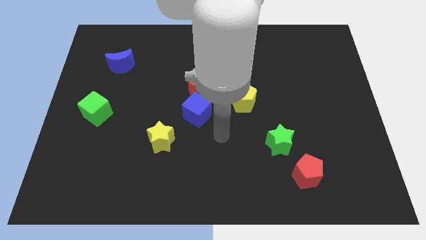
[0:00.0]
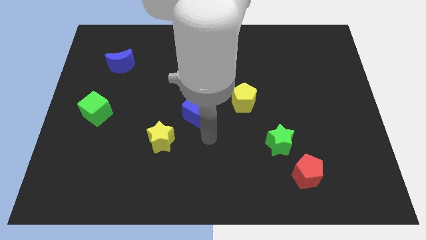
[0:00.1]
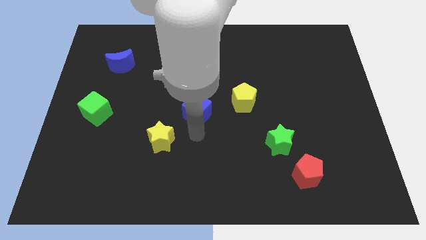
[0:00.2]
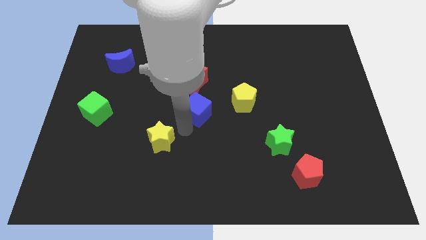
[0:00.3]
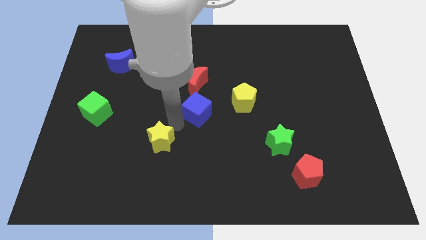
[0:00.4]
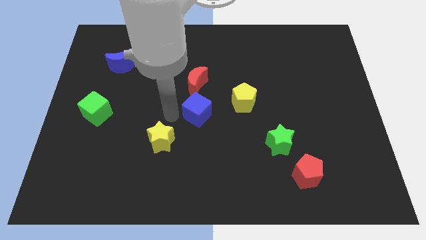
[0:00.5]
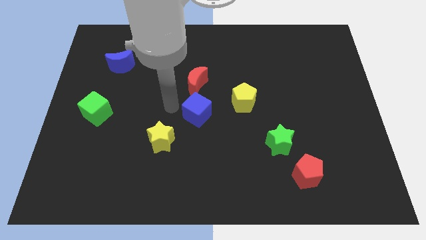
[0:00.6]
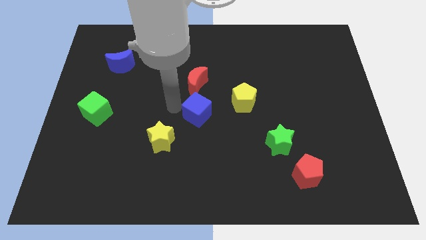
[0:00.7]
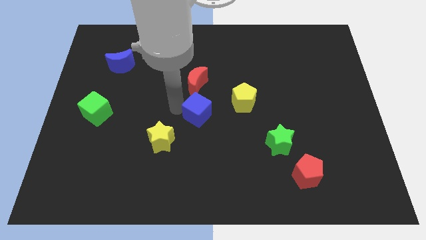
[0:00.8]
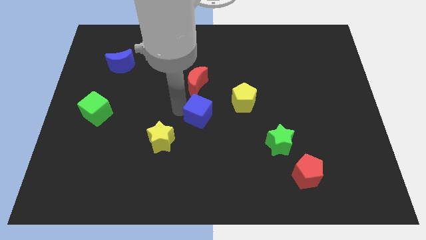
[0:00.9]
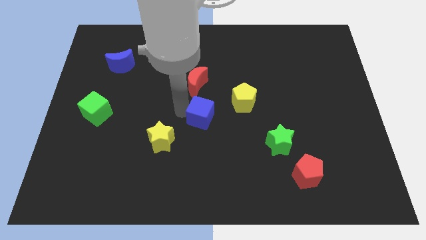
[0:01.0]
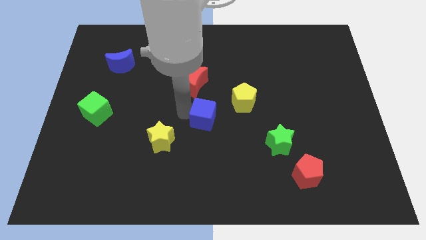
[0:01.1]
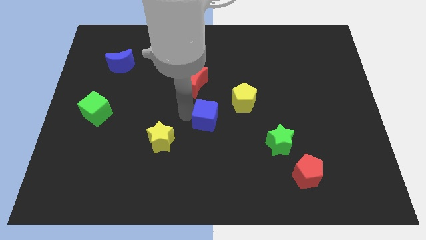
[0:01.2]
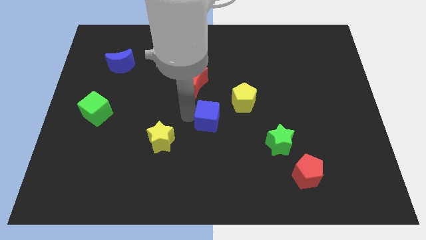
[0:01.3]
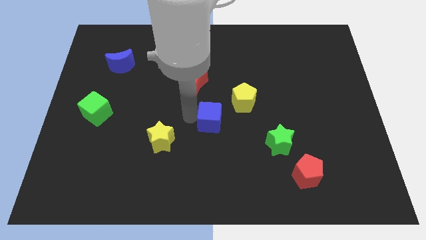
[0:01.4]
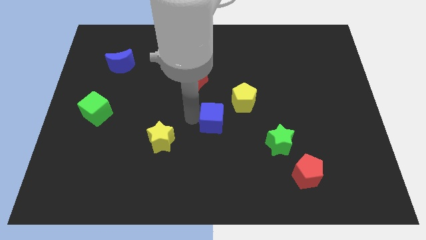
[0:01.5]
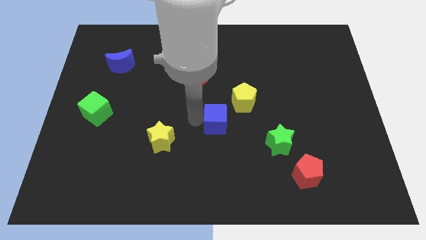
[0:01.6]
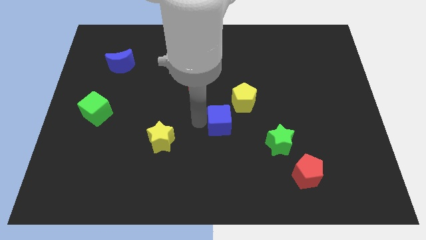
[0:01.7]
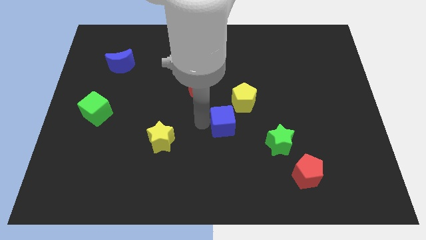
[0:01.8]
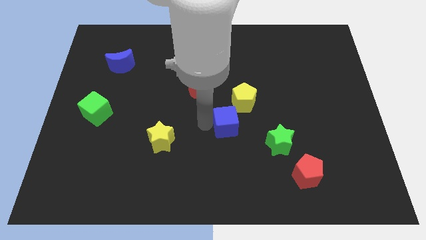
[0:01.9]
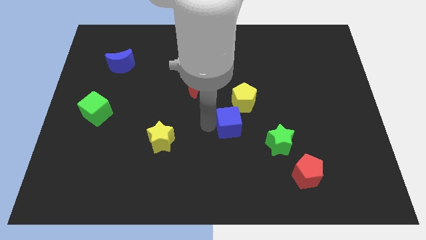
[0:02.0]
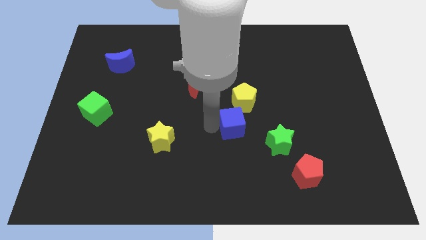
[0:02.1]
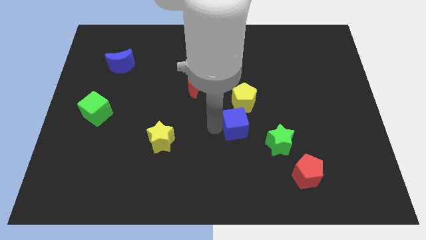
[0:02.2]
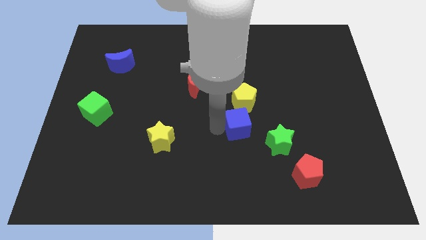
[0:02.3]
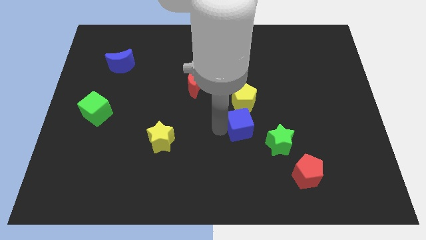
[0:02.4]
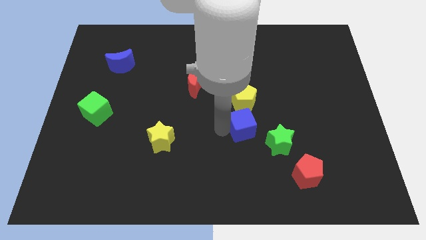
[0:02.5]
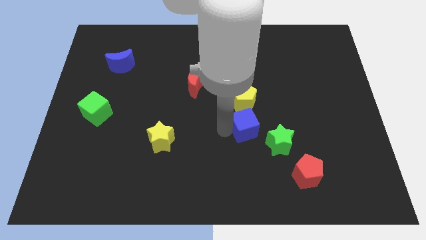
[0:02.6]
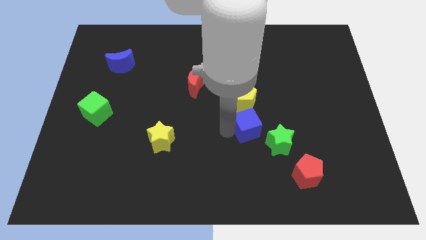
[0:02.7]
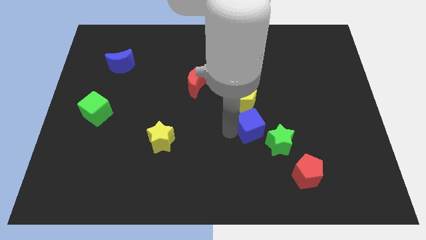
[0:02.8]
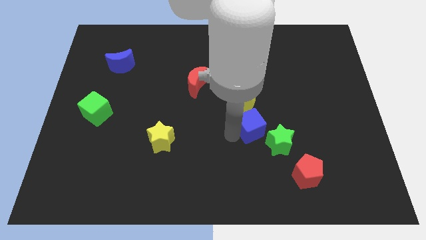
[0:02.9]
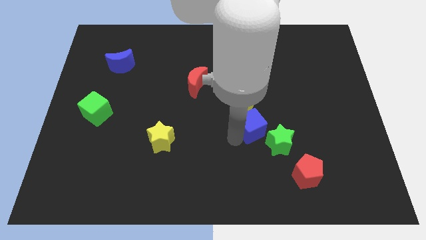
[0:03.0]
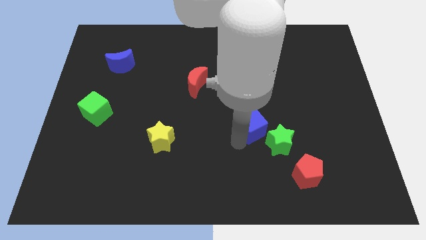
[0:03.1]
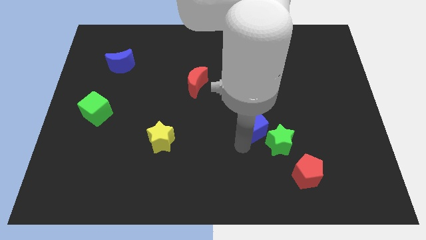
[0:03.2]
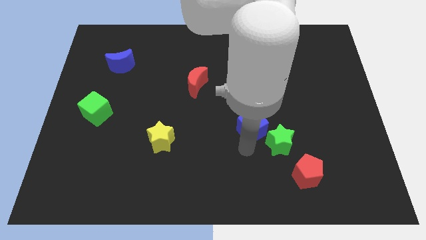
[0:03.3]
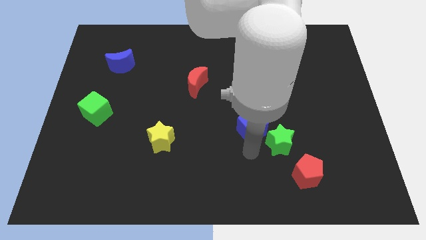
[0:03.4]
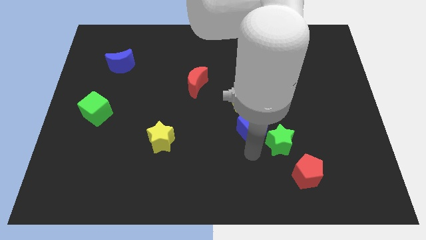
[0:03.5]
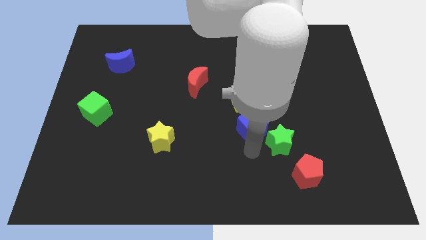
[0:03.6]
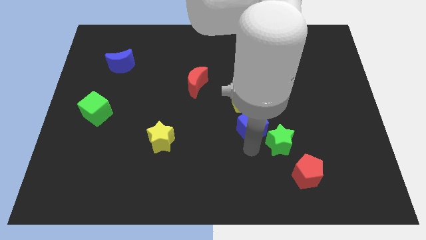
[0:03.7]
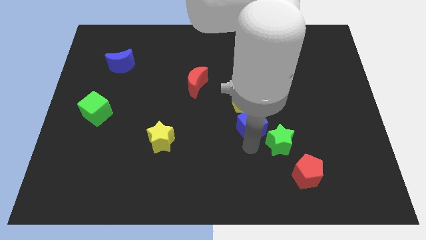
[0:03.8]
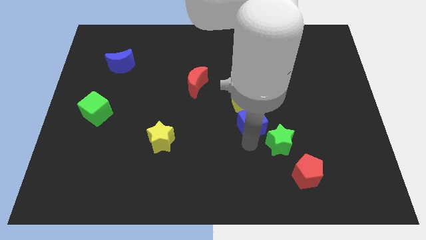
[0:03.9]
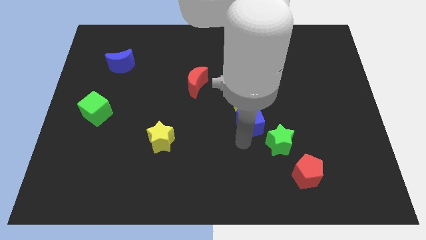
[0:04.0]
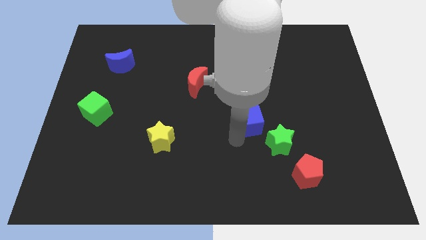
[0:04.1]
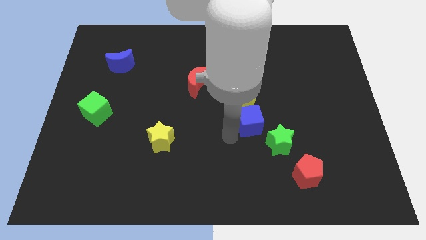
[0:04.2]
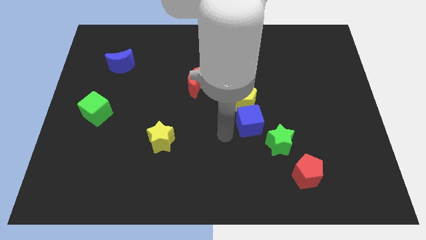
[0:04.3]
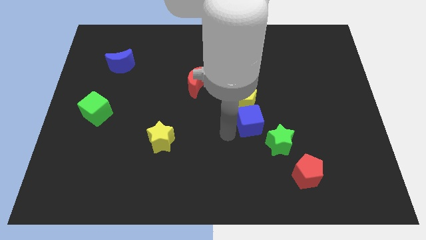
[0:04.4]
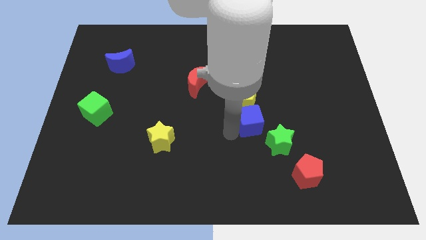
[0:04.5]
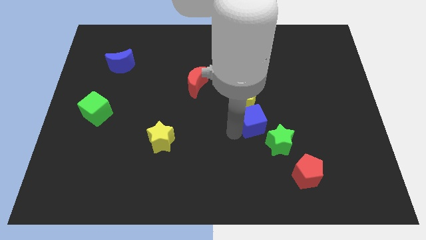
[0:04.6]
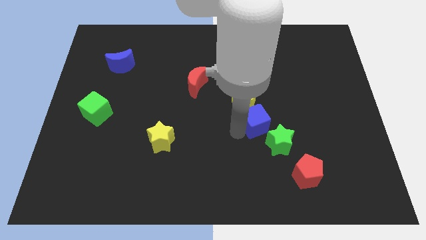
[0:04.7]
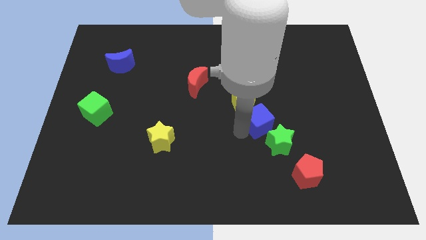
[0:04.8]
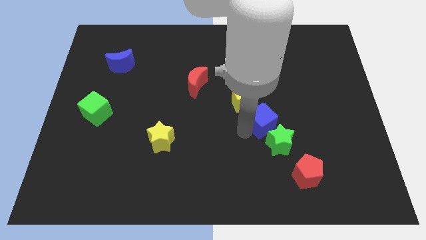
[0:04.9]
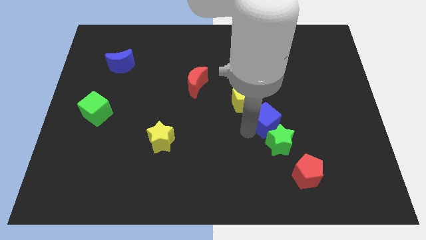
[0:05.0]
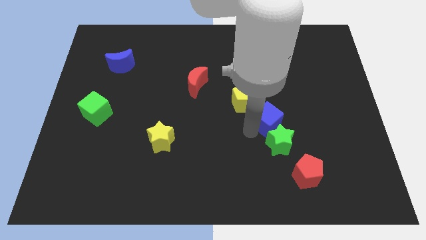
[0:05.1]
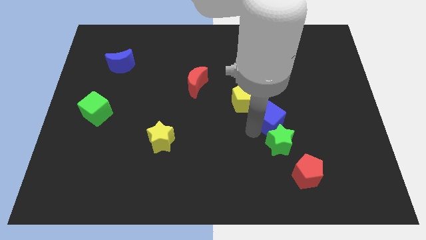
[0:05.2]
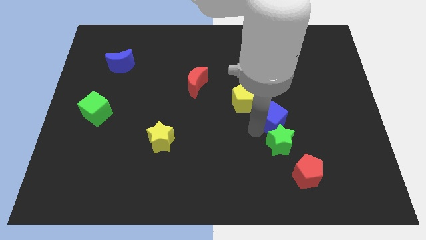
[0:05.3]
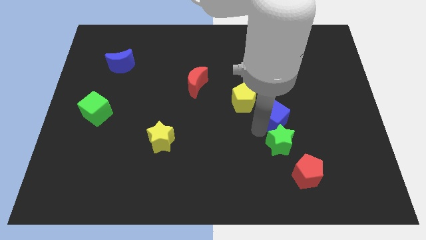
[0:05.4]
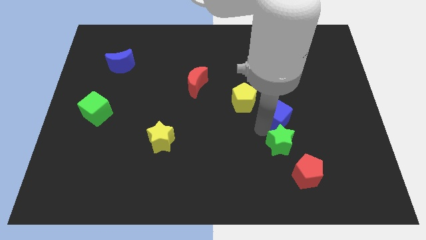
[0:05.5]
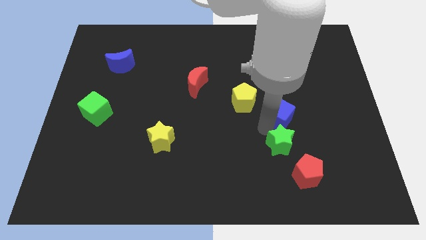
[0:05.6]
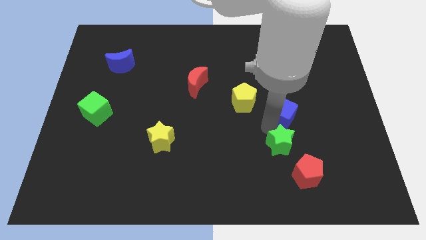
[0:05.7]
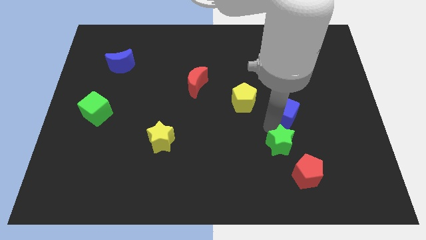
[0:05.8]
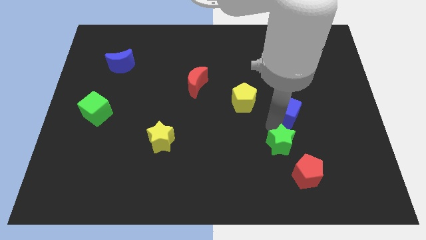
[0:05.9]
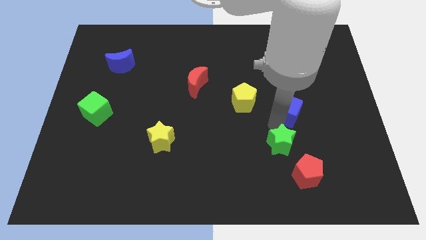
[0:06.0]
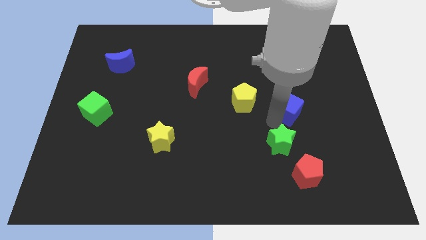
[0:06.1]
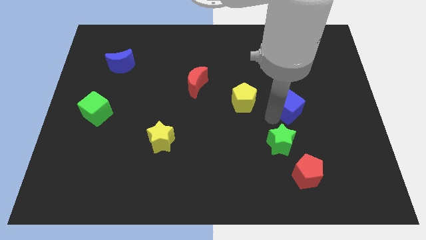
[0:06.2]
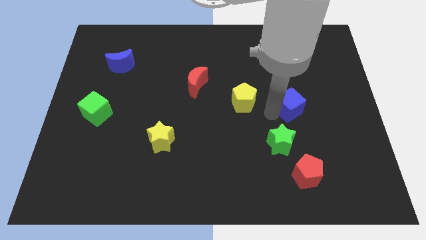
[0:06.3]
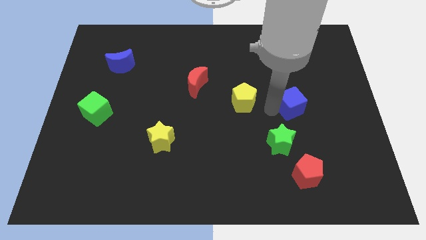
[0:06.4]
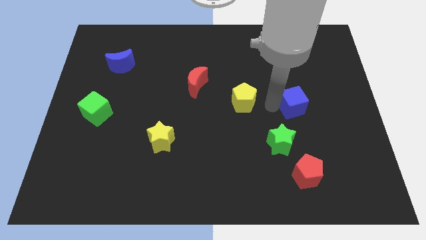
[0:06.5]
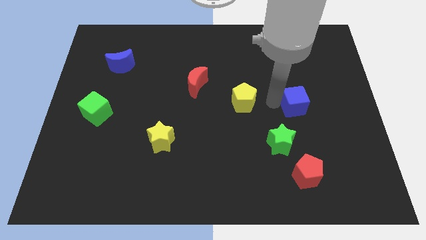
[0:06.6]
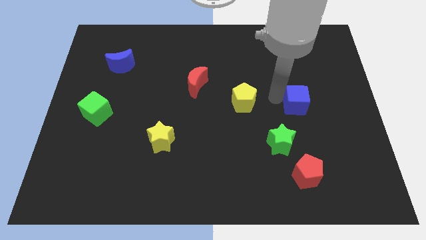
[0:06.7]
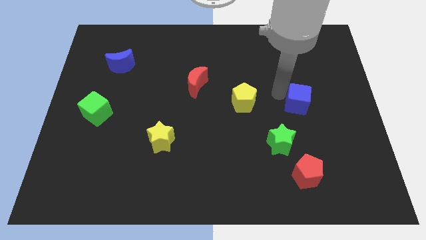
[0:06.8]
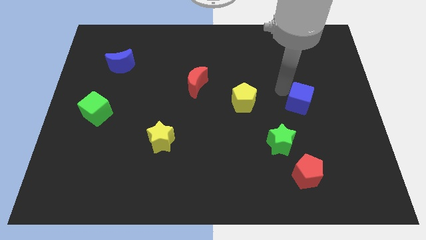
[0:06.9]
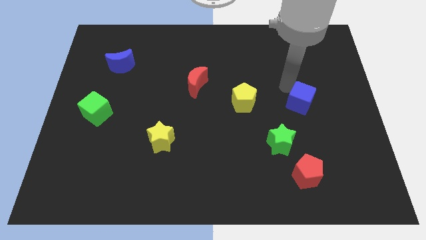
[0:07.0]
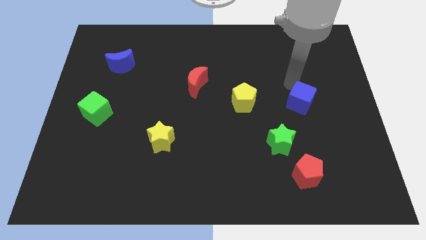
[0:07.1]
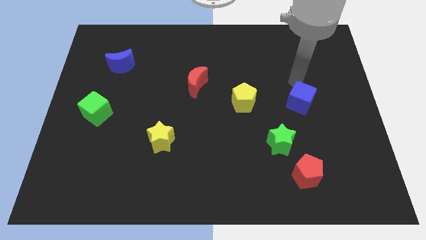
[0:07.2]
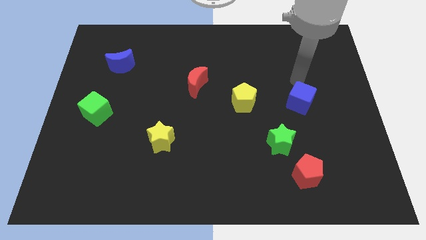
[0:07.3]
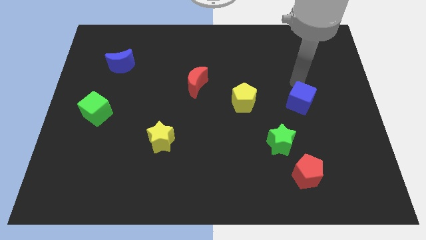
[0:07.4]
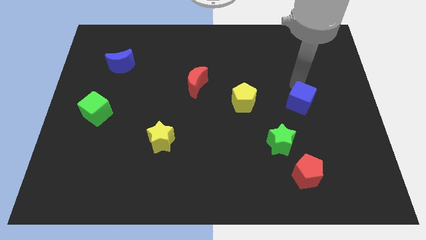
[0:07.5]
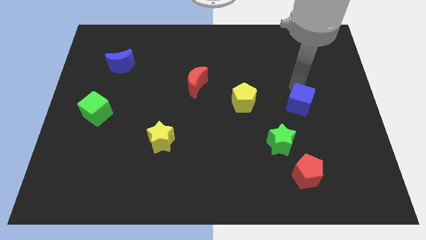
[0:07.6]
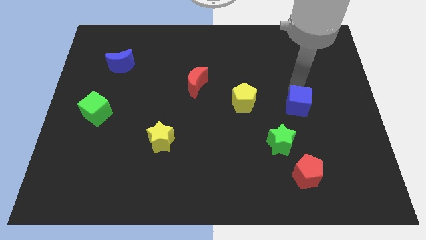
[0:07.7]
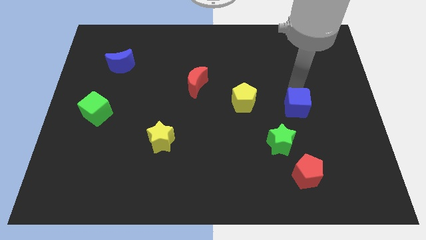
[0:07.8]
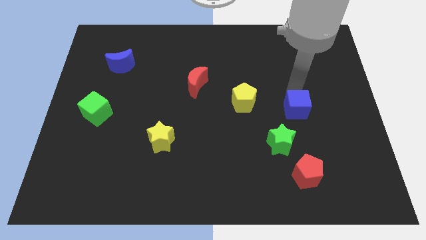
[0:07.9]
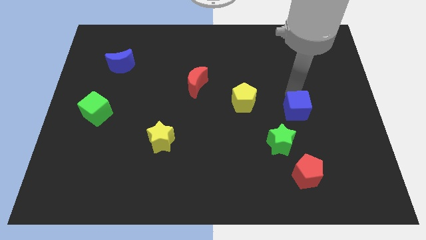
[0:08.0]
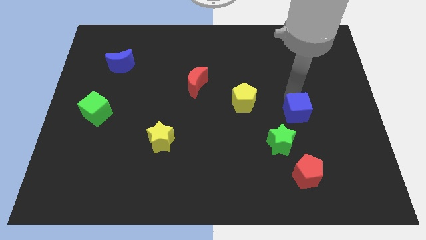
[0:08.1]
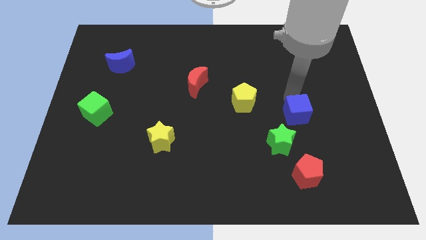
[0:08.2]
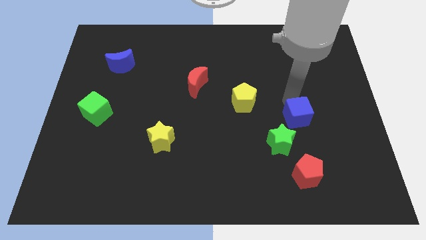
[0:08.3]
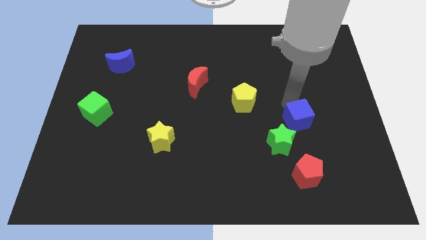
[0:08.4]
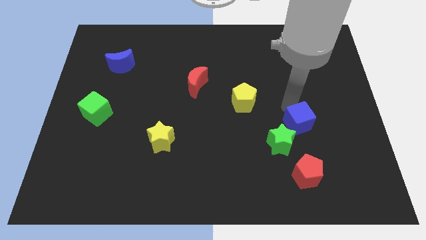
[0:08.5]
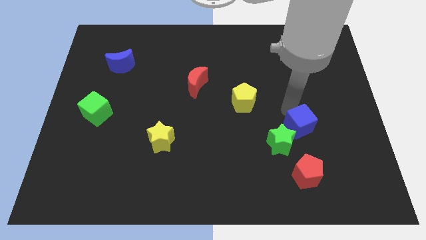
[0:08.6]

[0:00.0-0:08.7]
put the blue cube to the right of the green star
